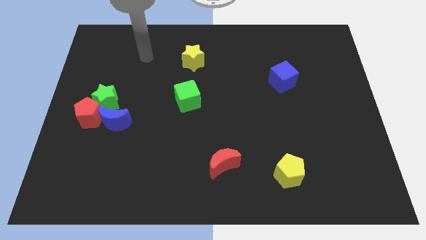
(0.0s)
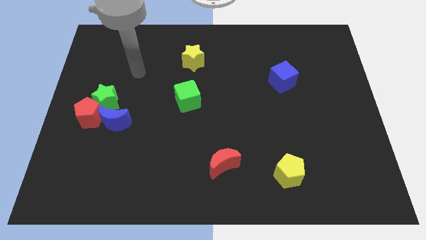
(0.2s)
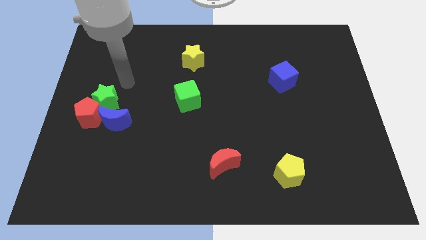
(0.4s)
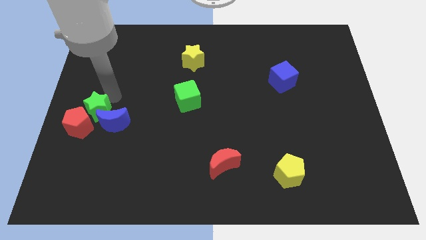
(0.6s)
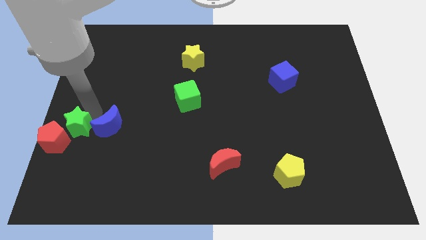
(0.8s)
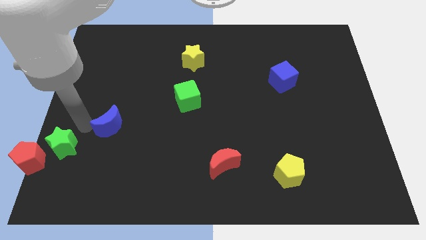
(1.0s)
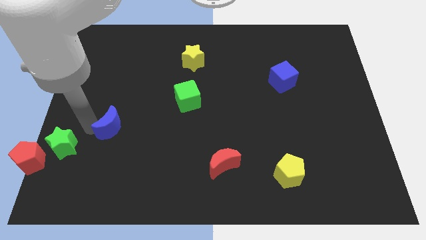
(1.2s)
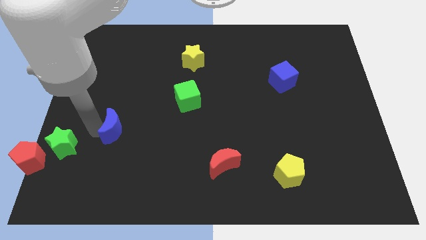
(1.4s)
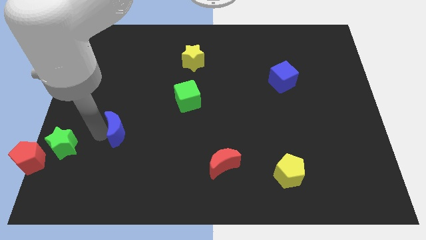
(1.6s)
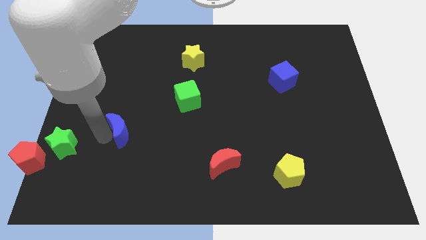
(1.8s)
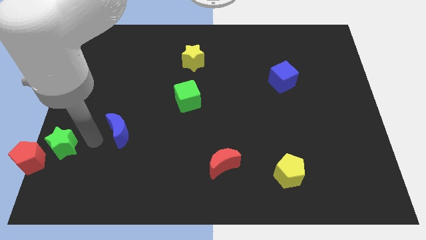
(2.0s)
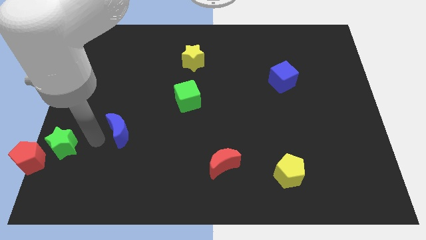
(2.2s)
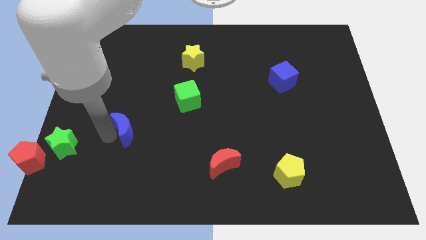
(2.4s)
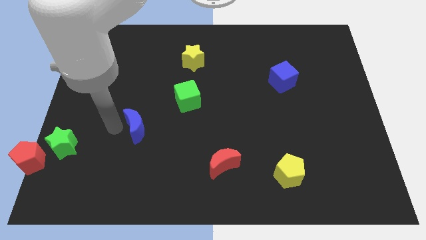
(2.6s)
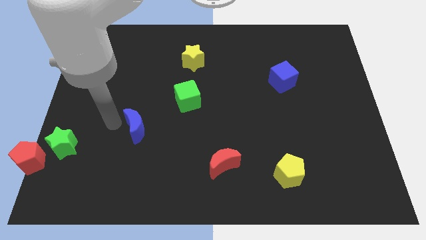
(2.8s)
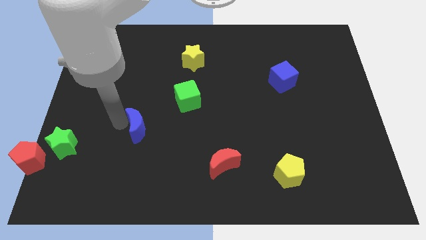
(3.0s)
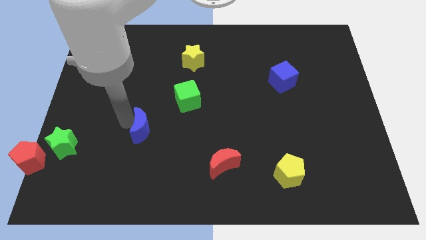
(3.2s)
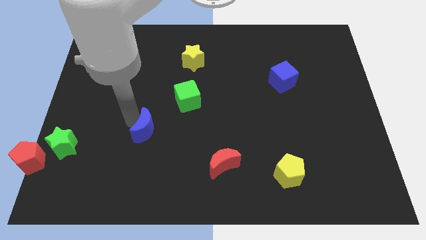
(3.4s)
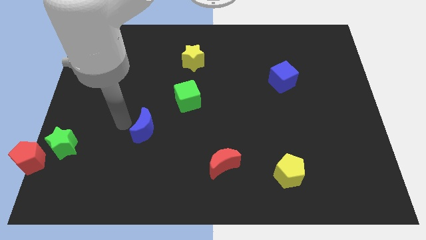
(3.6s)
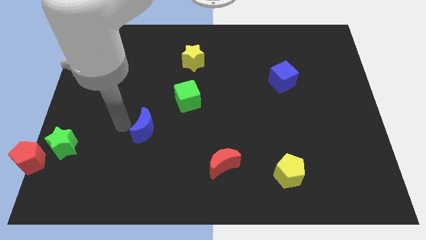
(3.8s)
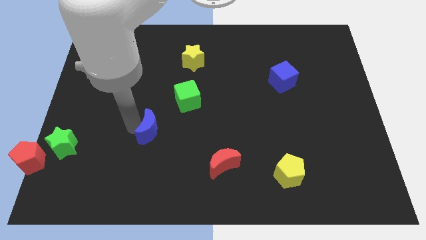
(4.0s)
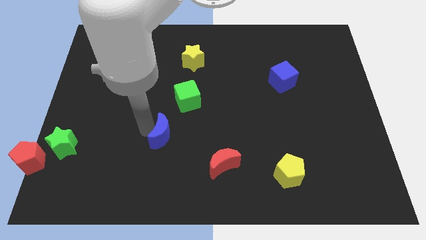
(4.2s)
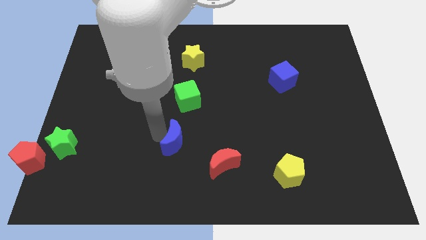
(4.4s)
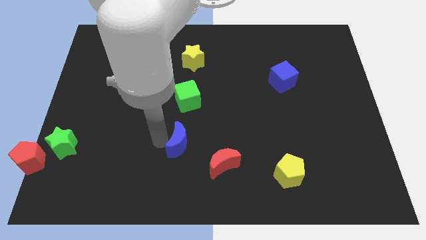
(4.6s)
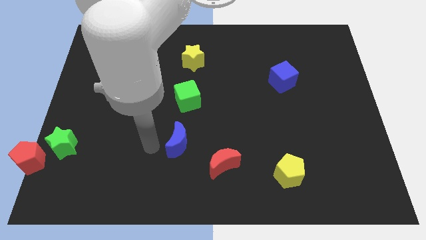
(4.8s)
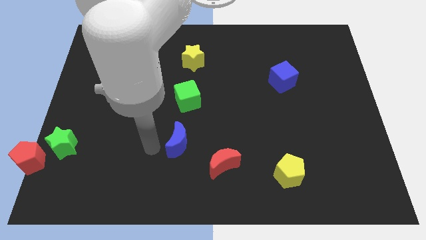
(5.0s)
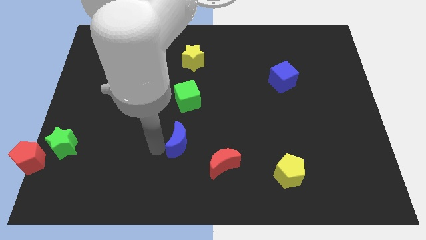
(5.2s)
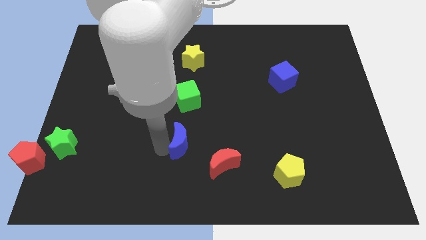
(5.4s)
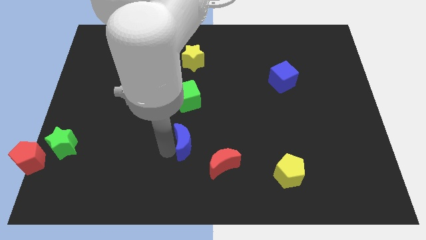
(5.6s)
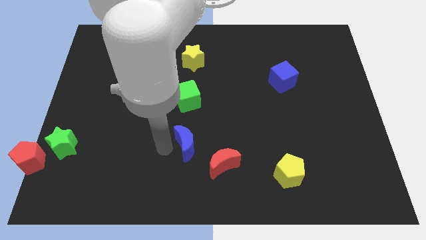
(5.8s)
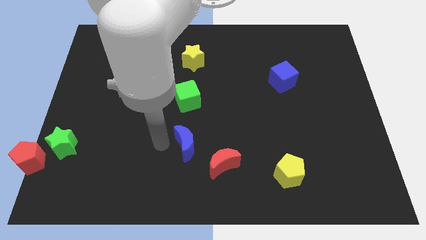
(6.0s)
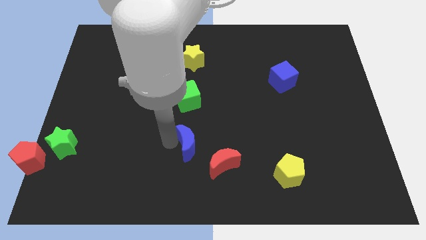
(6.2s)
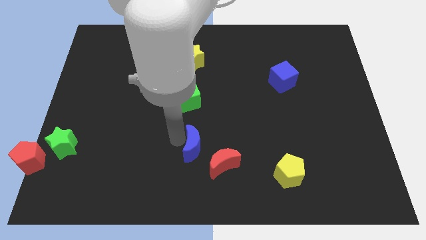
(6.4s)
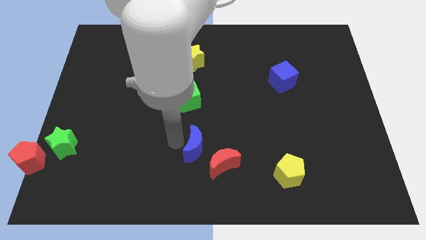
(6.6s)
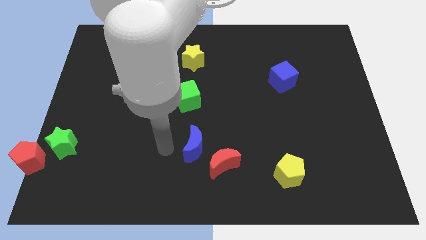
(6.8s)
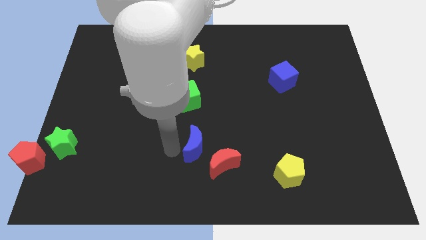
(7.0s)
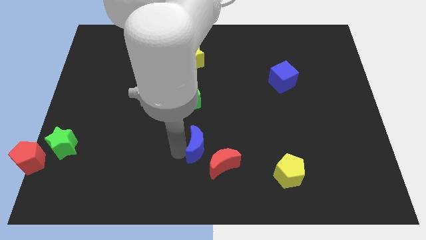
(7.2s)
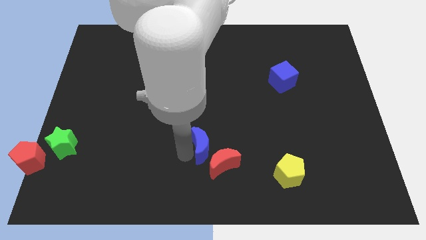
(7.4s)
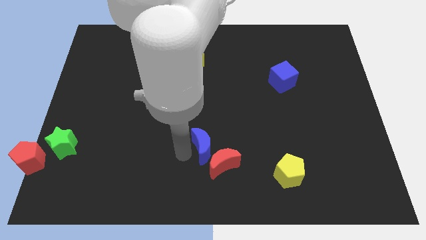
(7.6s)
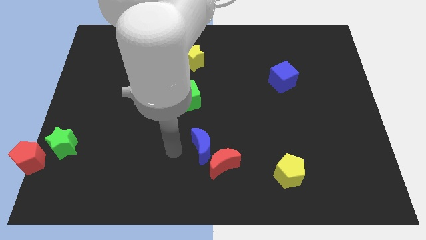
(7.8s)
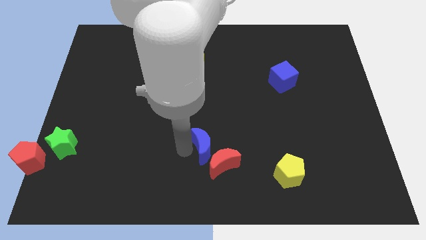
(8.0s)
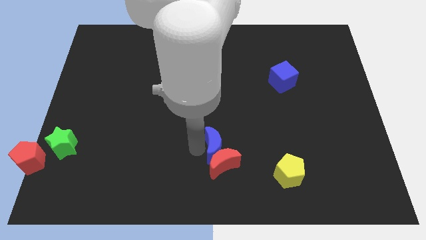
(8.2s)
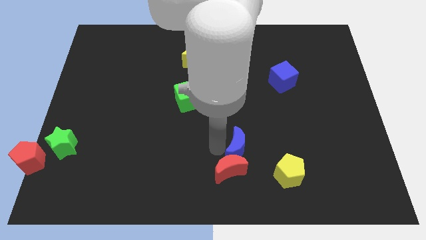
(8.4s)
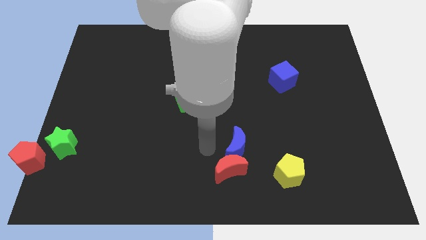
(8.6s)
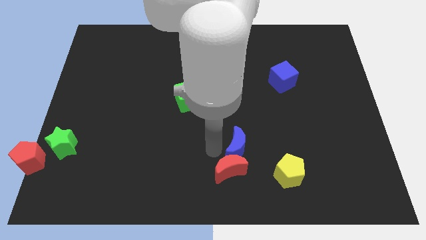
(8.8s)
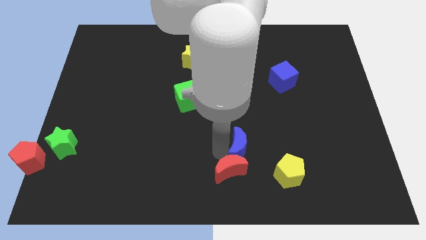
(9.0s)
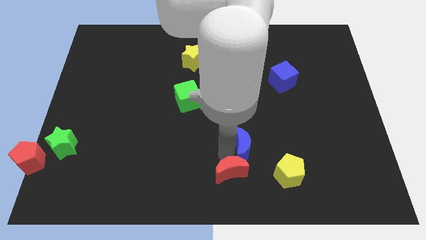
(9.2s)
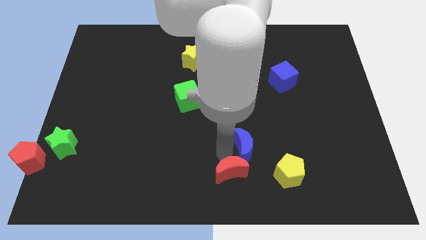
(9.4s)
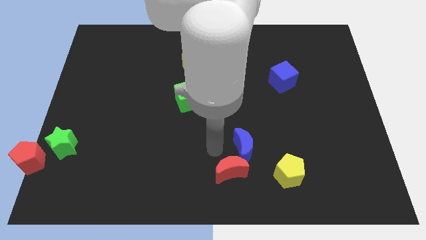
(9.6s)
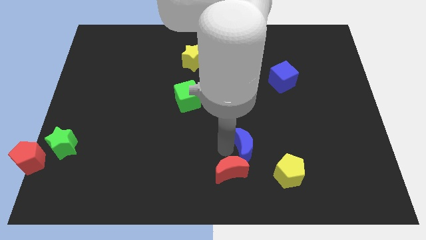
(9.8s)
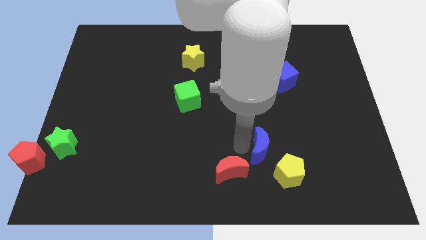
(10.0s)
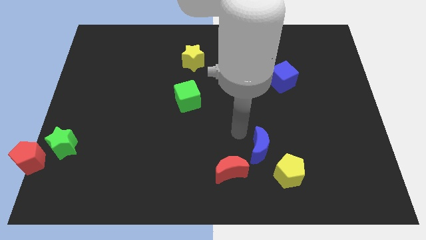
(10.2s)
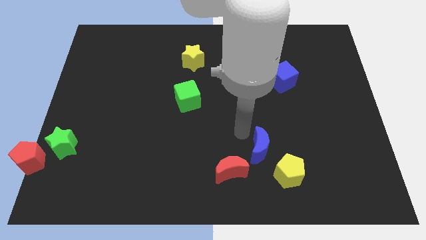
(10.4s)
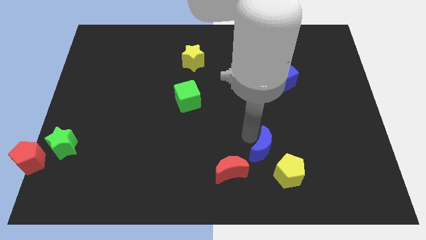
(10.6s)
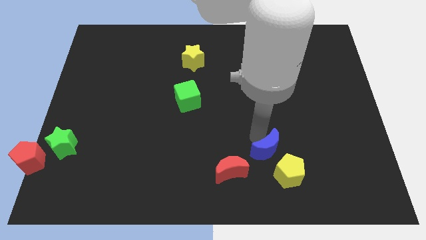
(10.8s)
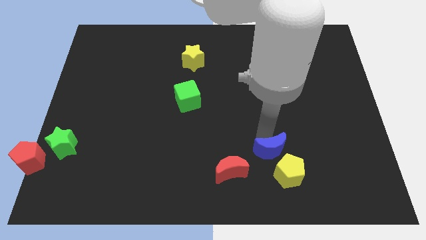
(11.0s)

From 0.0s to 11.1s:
slide the blue moon close to the yellow pentagon

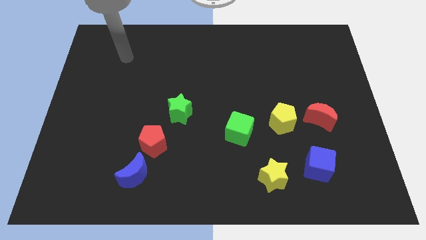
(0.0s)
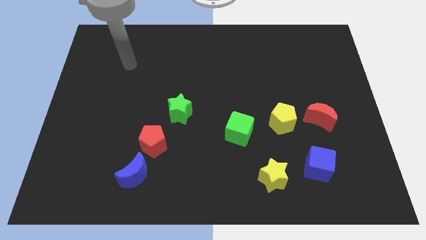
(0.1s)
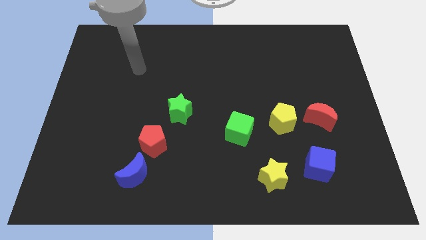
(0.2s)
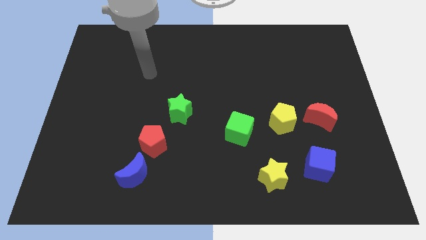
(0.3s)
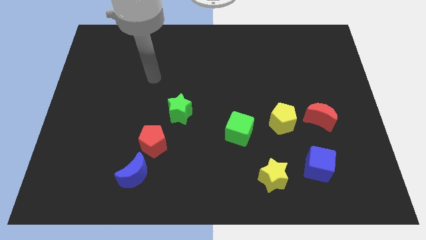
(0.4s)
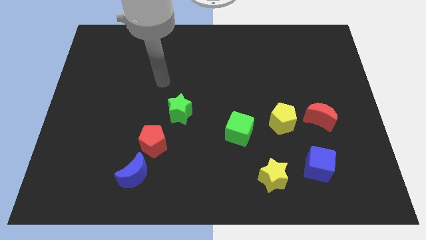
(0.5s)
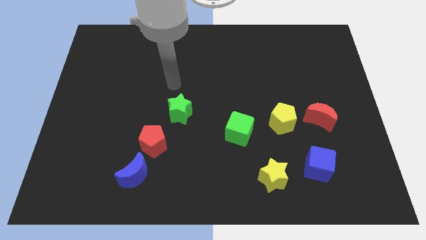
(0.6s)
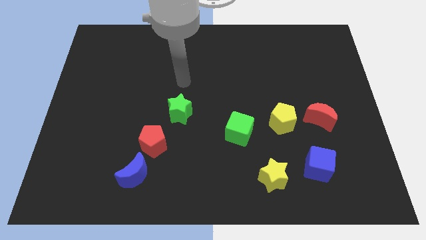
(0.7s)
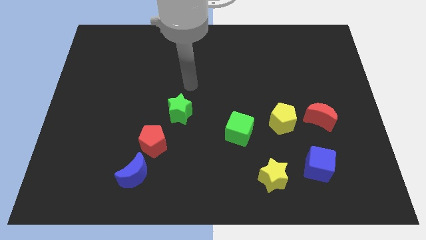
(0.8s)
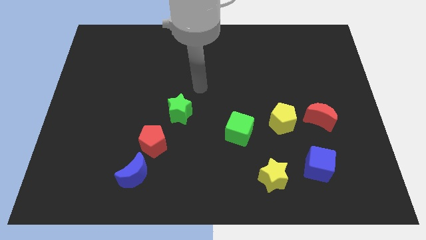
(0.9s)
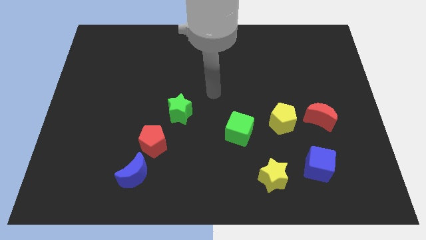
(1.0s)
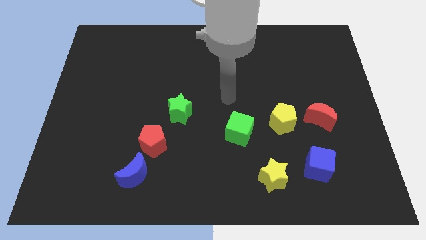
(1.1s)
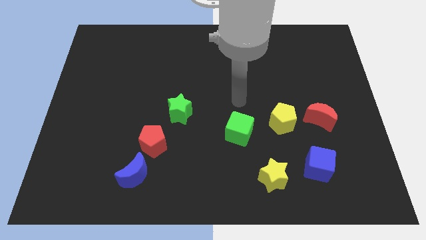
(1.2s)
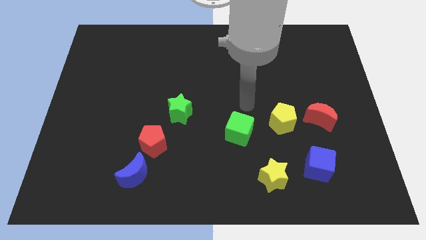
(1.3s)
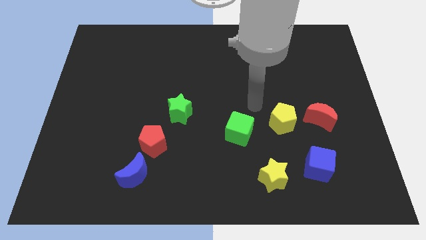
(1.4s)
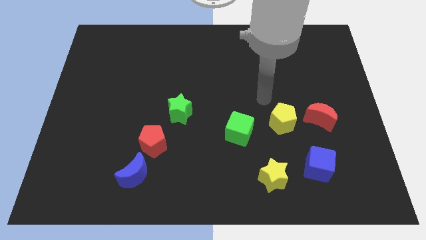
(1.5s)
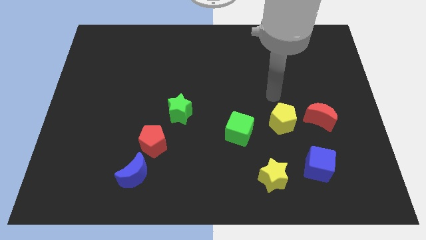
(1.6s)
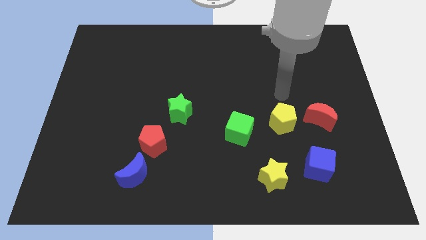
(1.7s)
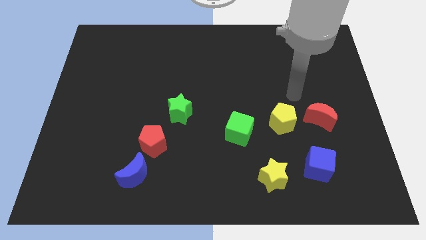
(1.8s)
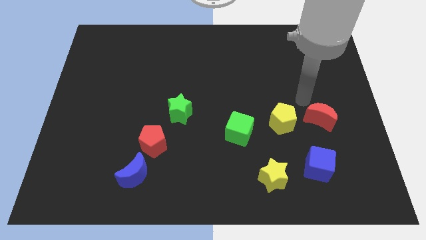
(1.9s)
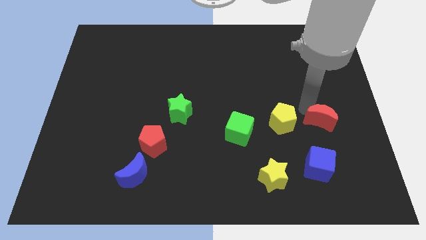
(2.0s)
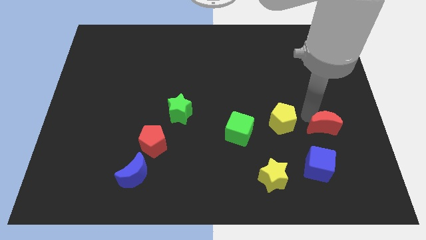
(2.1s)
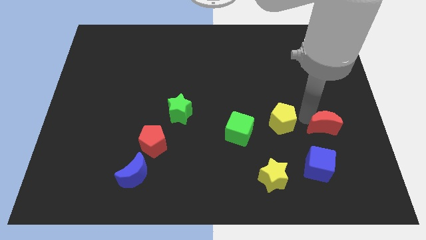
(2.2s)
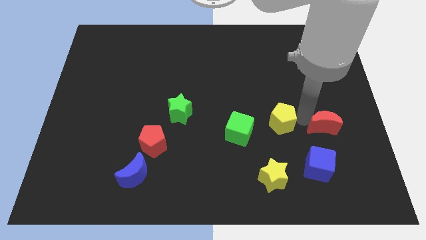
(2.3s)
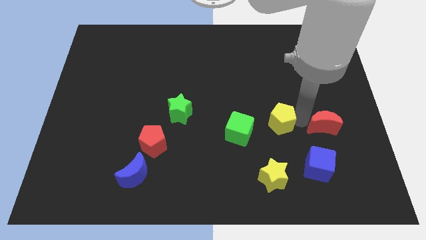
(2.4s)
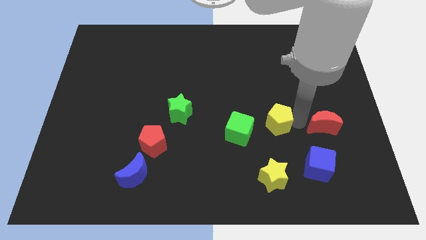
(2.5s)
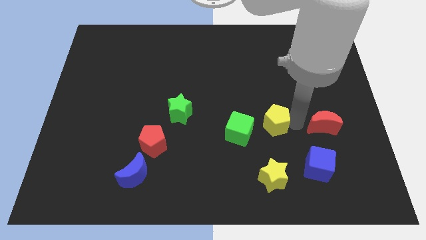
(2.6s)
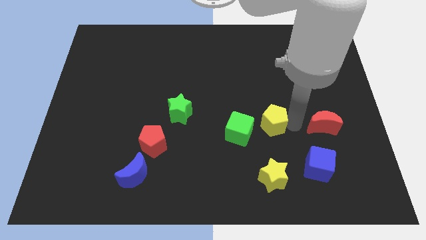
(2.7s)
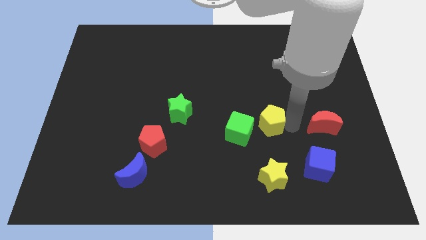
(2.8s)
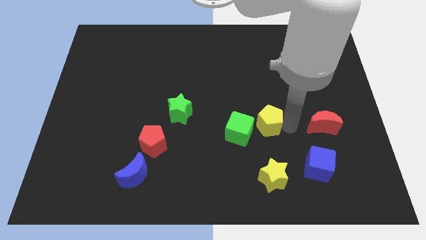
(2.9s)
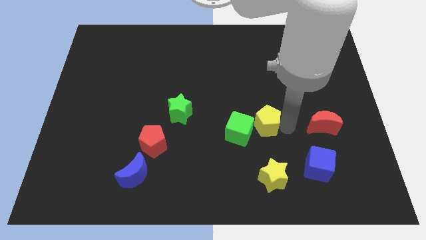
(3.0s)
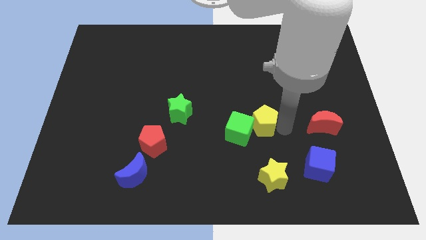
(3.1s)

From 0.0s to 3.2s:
put the yellow pentagon towards the green cube
